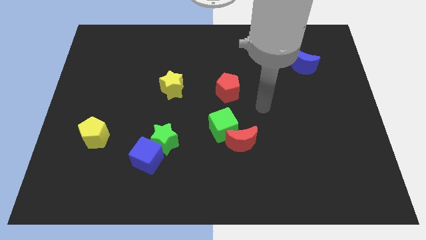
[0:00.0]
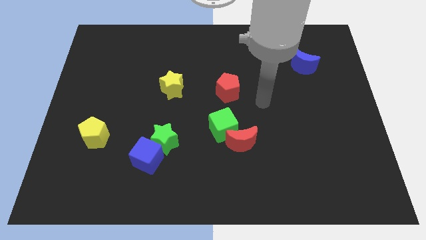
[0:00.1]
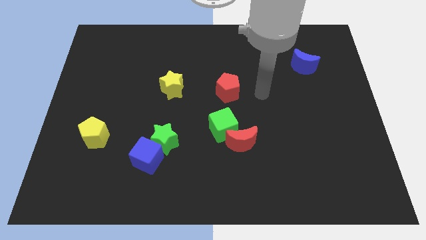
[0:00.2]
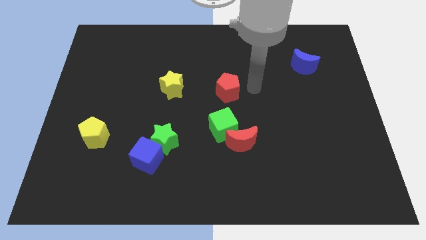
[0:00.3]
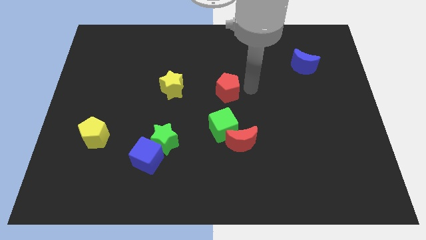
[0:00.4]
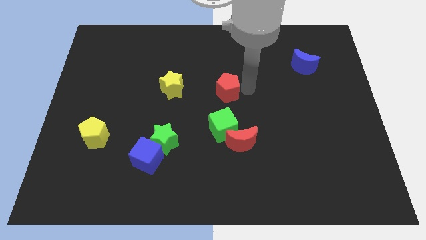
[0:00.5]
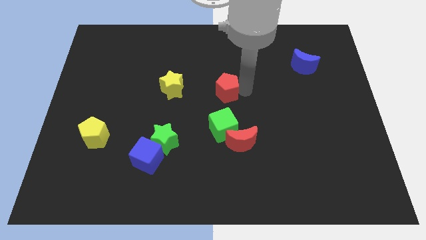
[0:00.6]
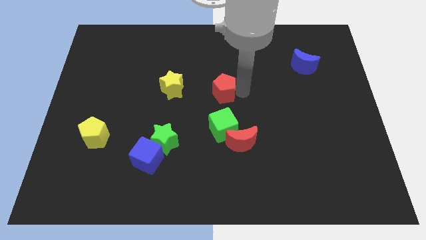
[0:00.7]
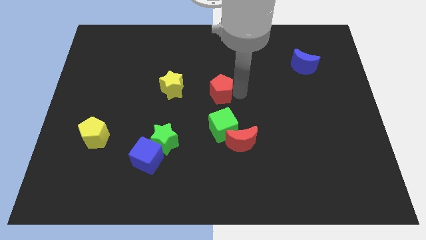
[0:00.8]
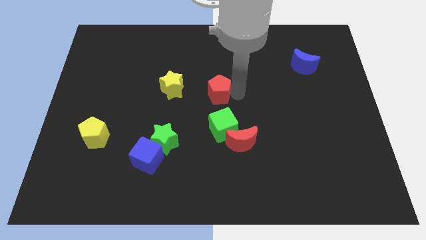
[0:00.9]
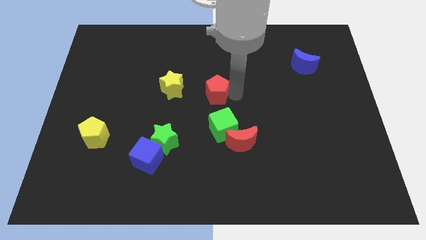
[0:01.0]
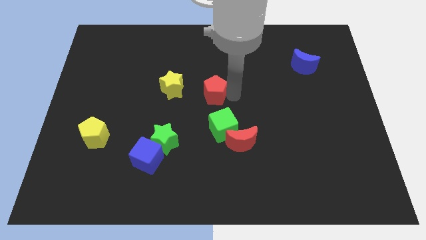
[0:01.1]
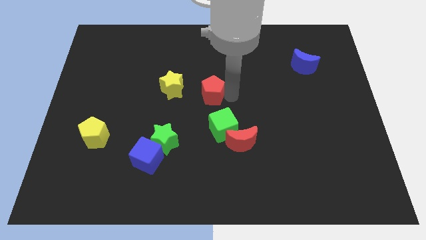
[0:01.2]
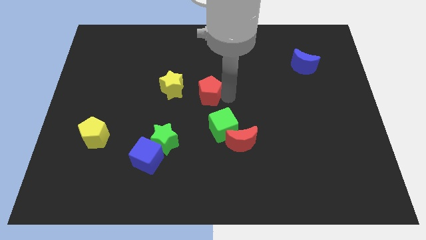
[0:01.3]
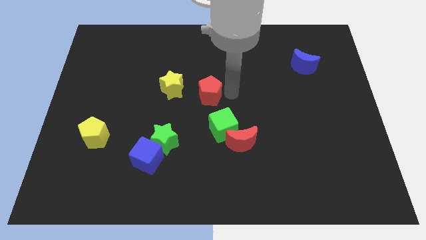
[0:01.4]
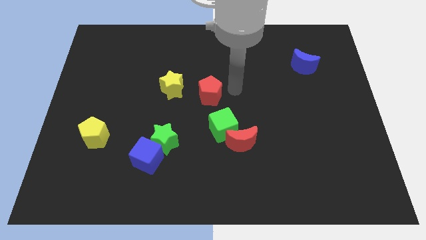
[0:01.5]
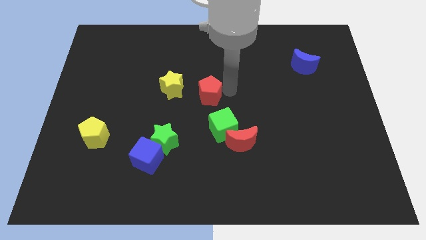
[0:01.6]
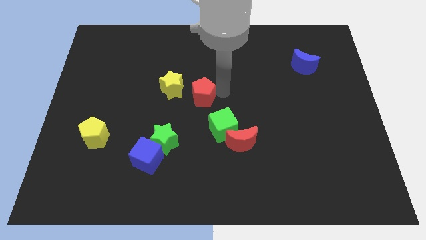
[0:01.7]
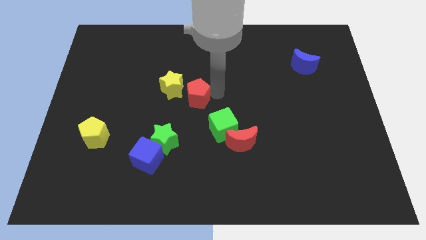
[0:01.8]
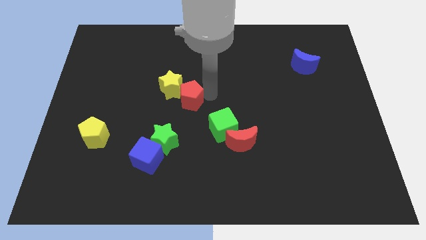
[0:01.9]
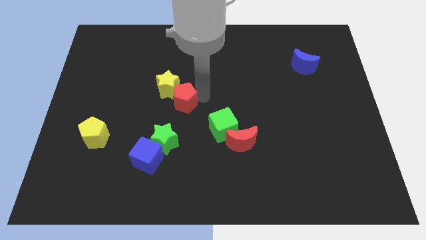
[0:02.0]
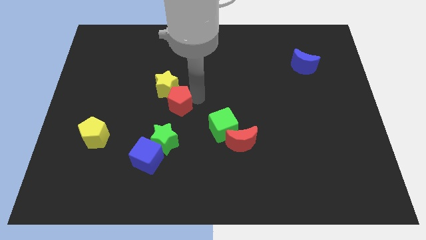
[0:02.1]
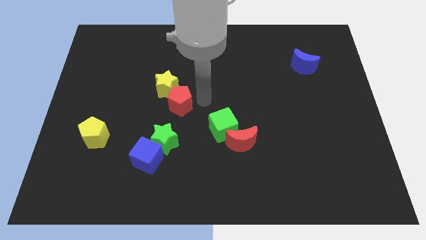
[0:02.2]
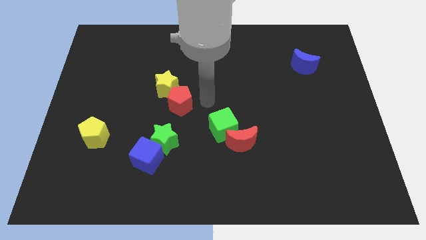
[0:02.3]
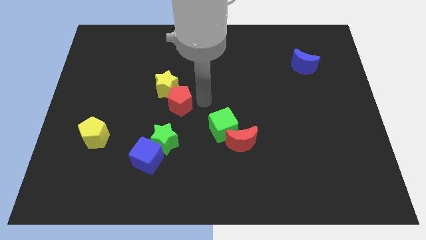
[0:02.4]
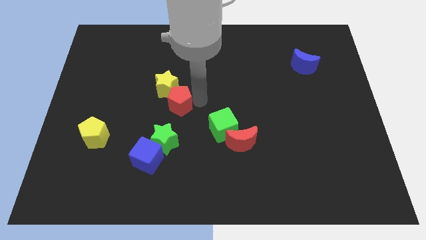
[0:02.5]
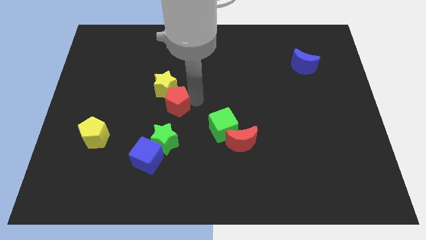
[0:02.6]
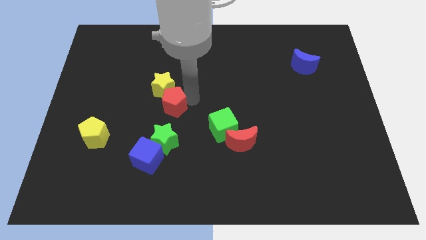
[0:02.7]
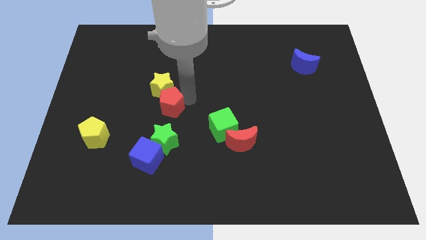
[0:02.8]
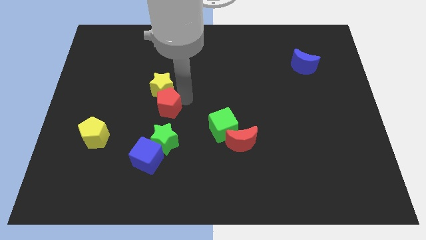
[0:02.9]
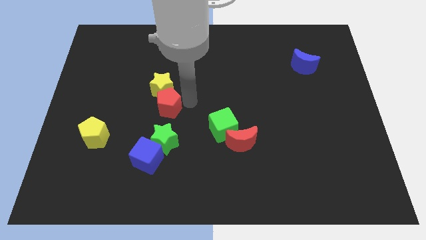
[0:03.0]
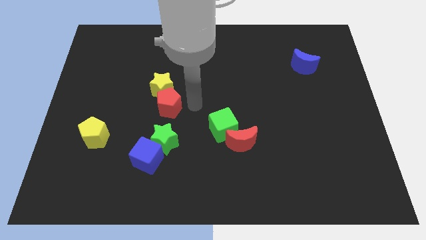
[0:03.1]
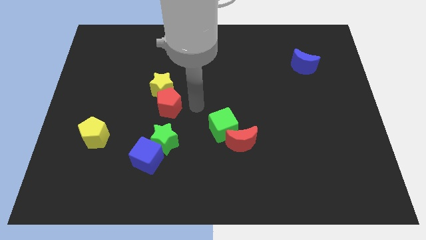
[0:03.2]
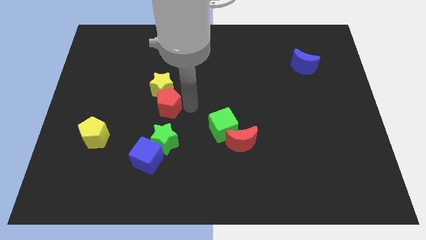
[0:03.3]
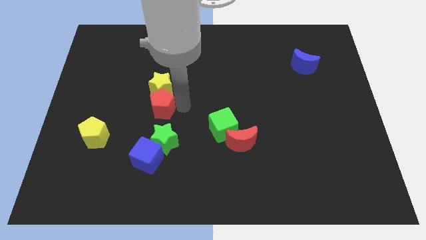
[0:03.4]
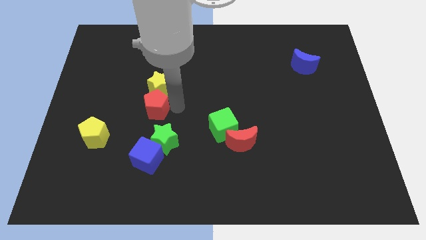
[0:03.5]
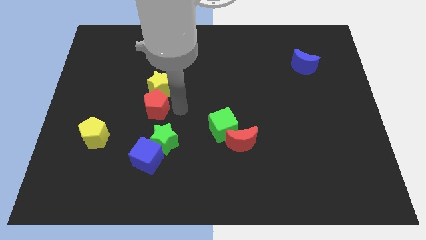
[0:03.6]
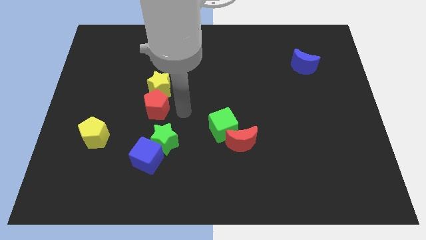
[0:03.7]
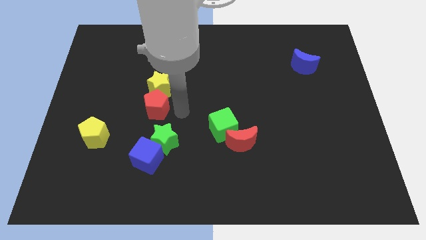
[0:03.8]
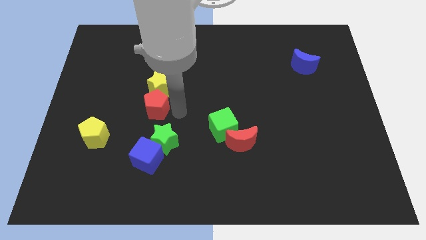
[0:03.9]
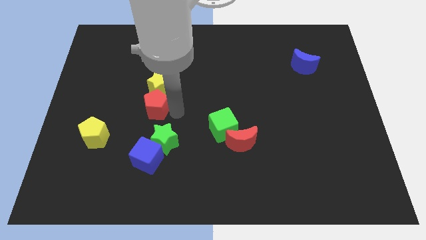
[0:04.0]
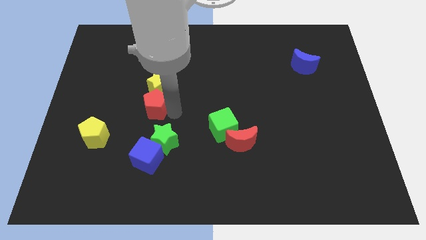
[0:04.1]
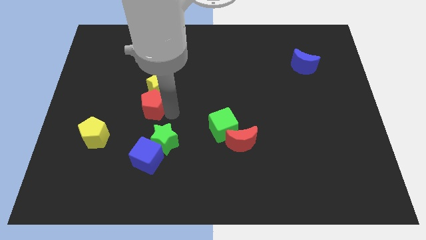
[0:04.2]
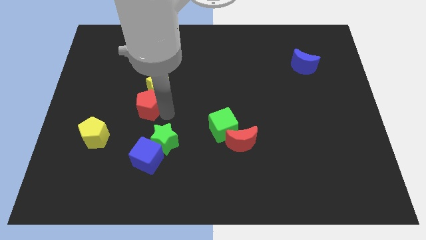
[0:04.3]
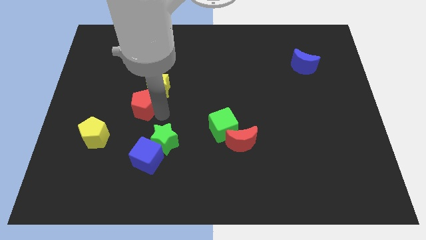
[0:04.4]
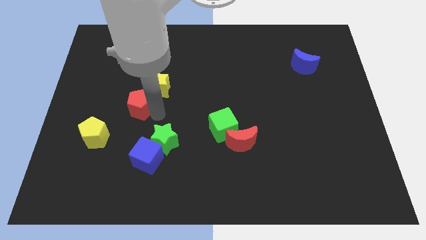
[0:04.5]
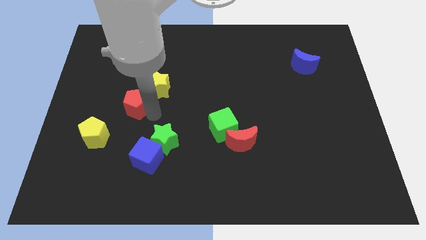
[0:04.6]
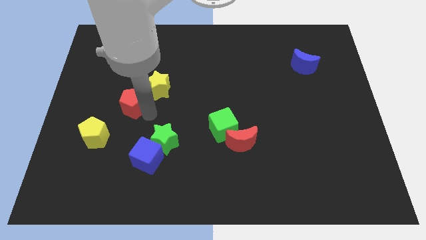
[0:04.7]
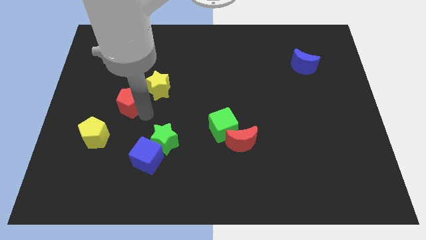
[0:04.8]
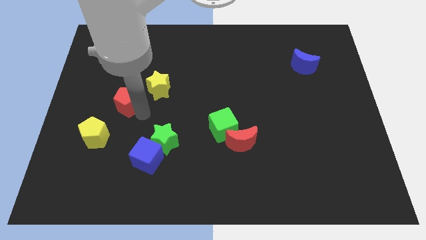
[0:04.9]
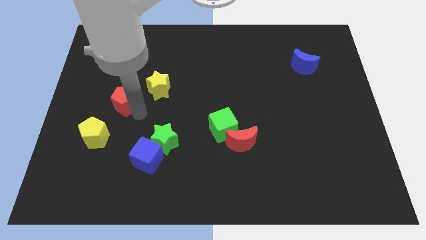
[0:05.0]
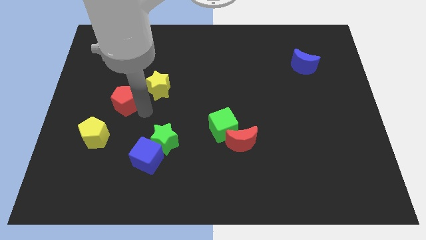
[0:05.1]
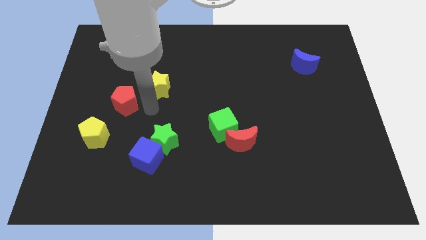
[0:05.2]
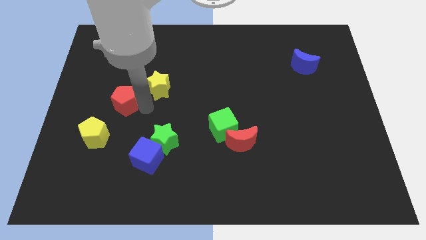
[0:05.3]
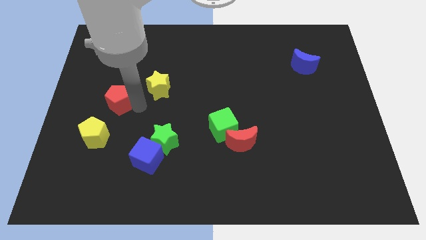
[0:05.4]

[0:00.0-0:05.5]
move the red pentagon to the top of the yellow pentagon

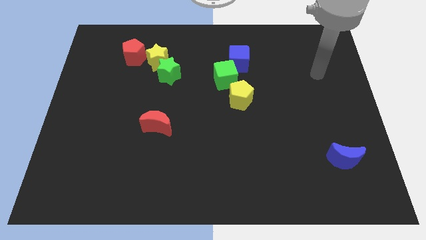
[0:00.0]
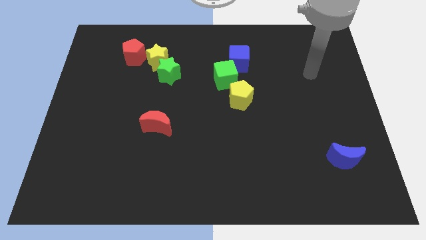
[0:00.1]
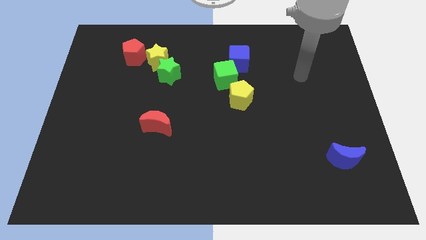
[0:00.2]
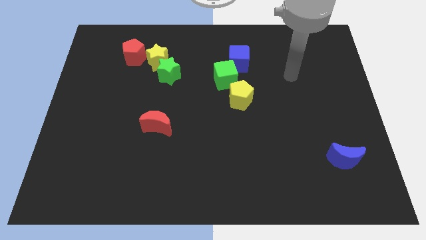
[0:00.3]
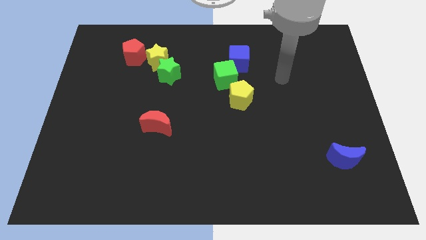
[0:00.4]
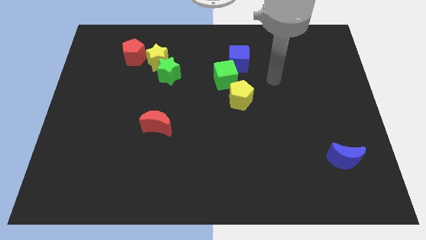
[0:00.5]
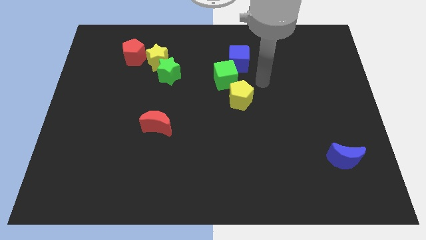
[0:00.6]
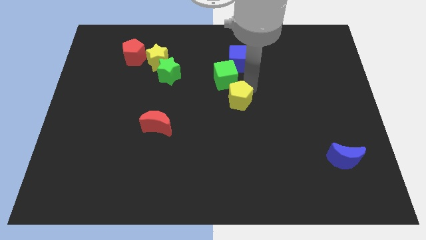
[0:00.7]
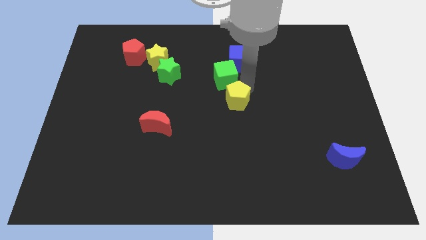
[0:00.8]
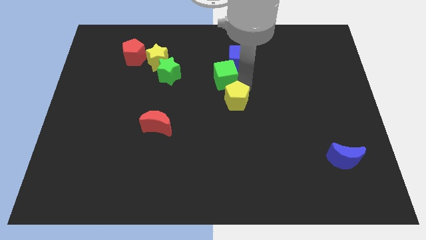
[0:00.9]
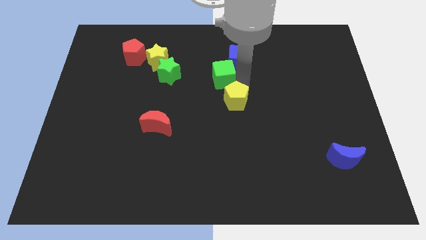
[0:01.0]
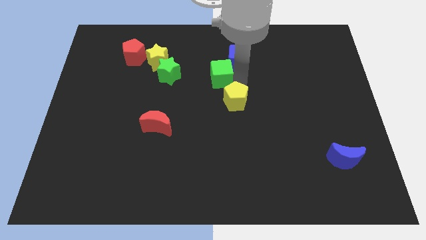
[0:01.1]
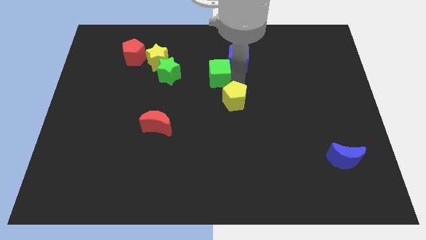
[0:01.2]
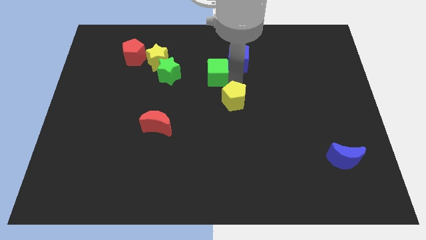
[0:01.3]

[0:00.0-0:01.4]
put the green cube left of the blue cube
